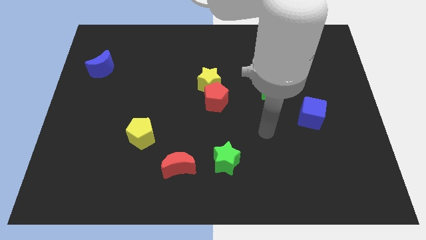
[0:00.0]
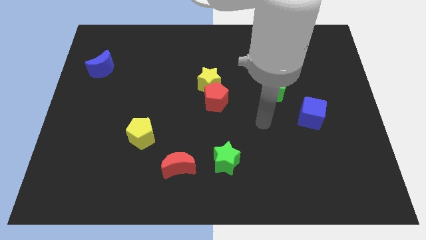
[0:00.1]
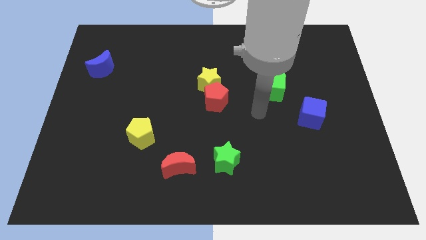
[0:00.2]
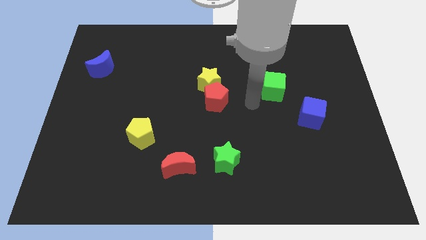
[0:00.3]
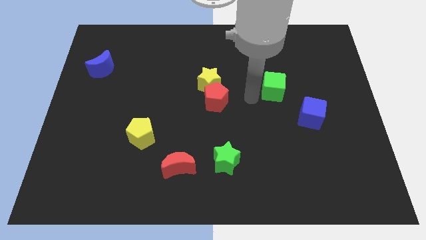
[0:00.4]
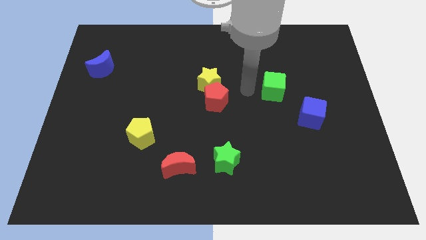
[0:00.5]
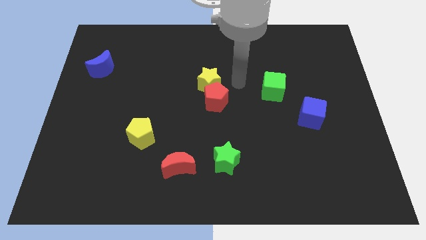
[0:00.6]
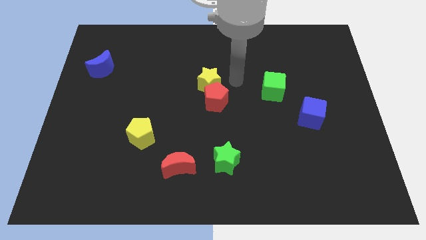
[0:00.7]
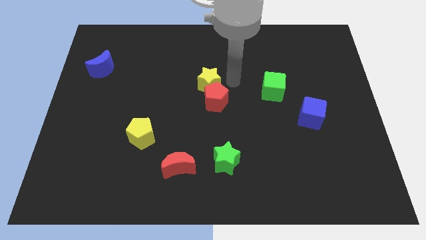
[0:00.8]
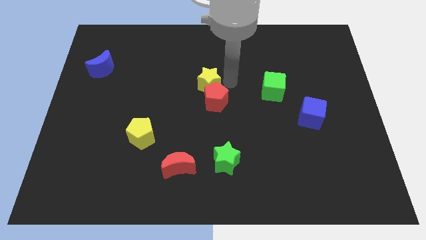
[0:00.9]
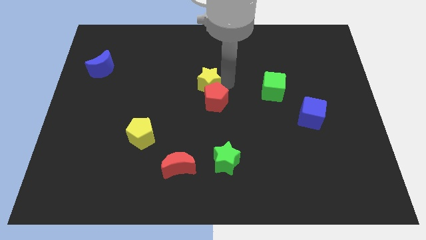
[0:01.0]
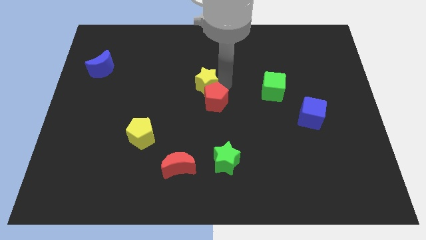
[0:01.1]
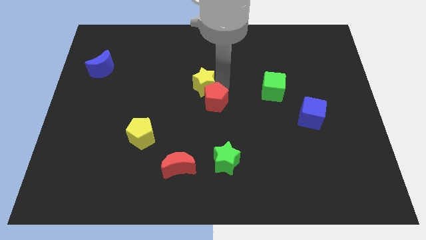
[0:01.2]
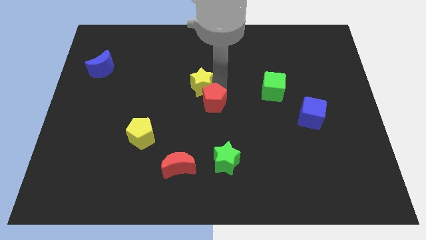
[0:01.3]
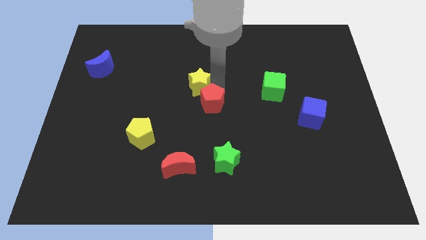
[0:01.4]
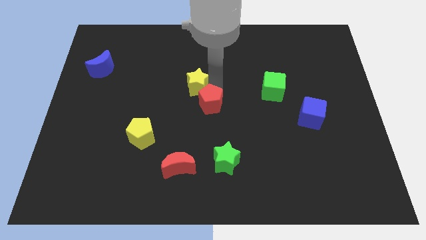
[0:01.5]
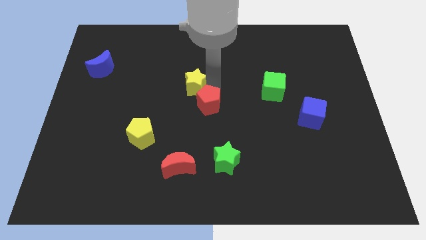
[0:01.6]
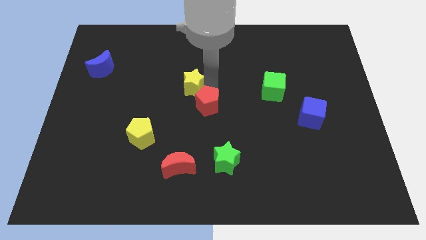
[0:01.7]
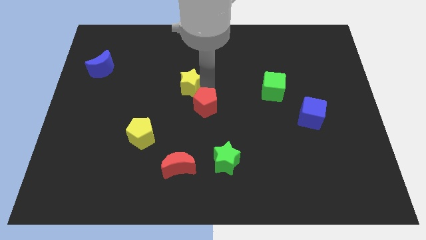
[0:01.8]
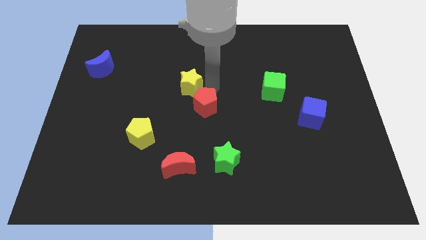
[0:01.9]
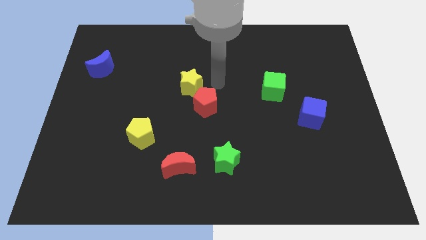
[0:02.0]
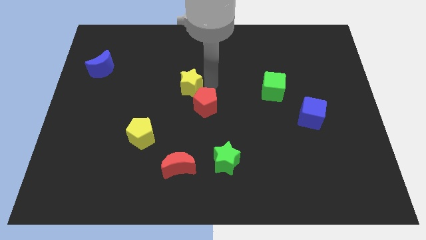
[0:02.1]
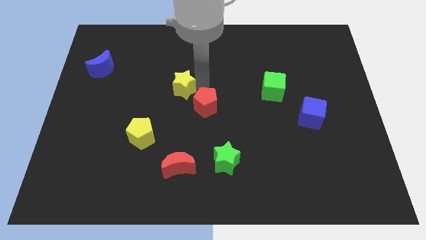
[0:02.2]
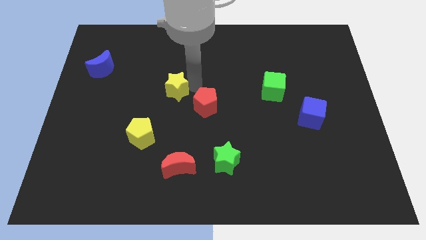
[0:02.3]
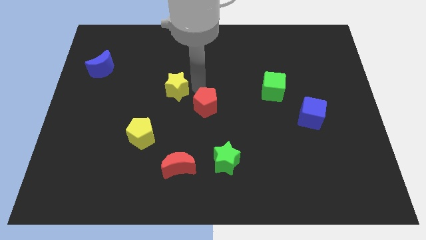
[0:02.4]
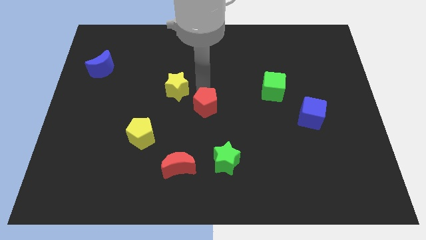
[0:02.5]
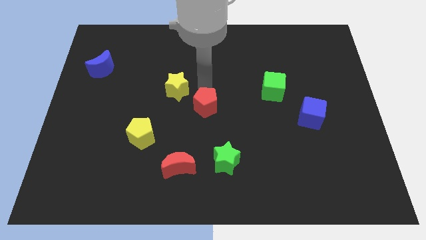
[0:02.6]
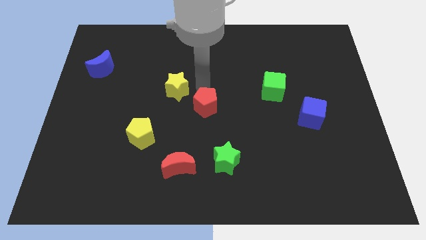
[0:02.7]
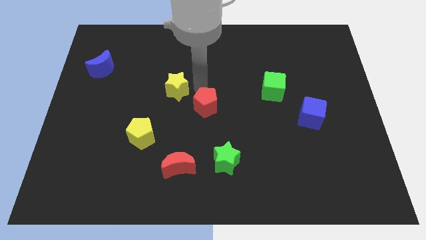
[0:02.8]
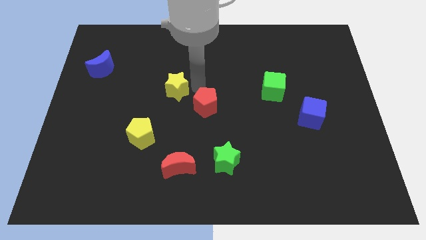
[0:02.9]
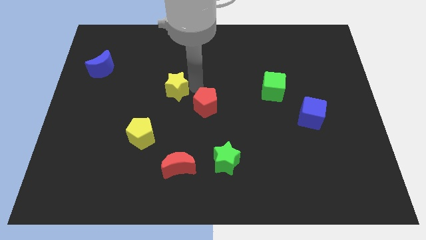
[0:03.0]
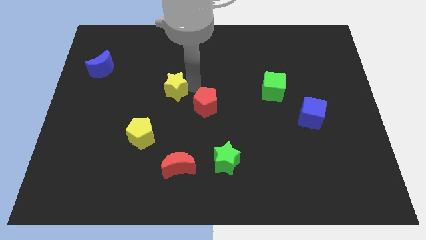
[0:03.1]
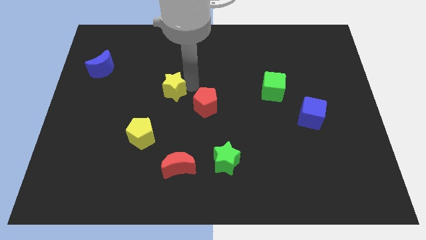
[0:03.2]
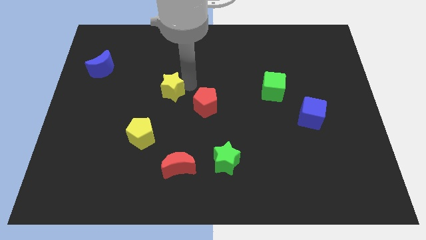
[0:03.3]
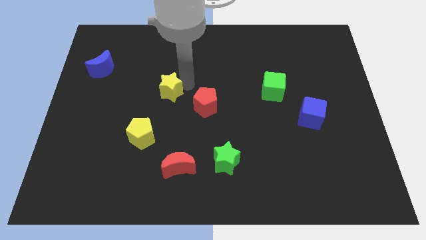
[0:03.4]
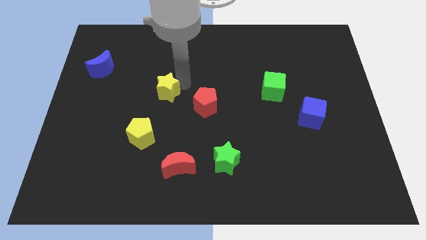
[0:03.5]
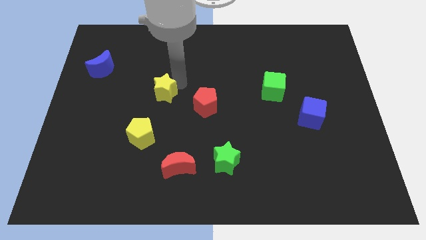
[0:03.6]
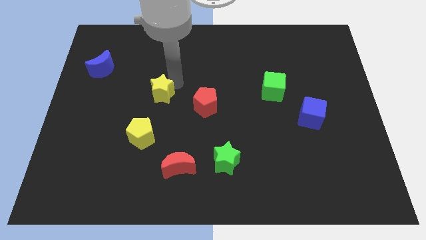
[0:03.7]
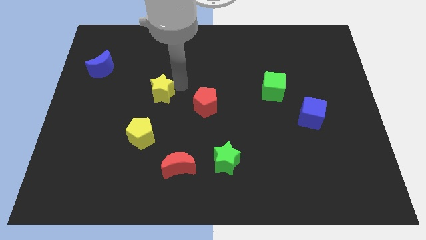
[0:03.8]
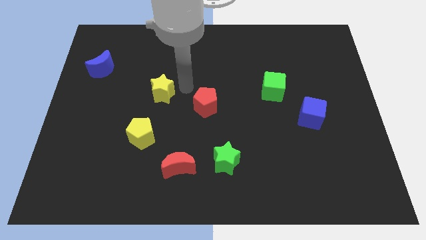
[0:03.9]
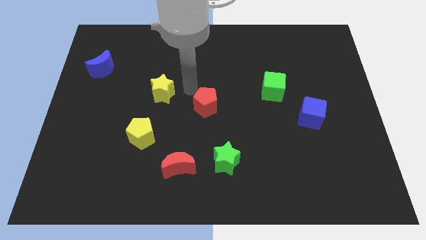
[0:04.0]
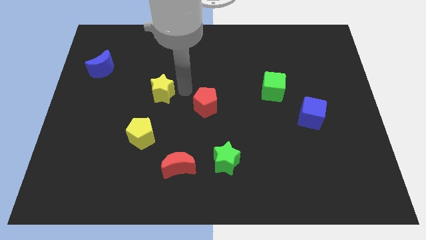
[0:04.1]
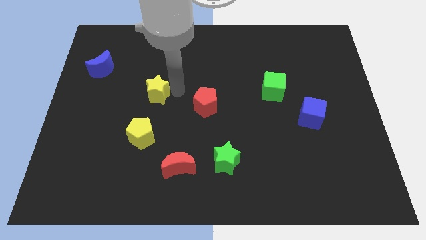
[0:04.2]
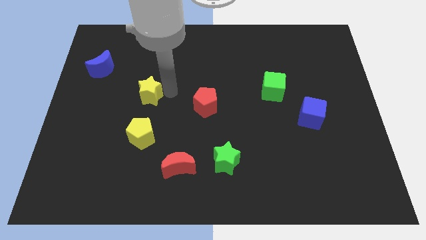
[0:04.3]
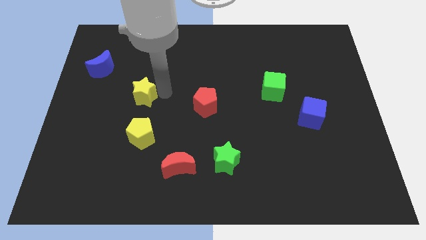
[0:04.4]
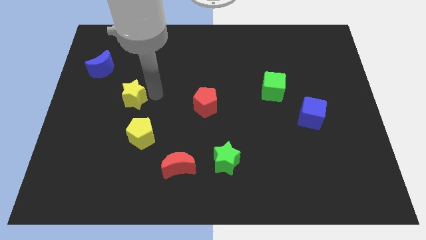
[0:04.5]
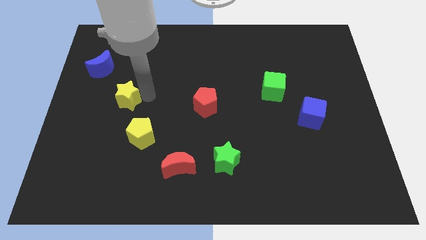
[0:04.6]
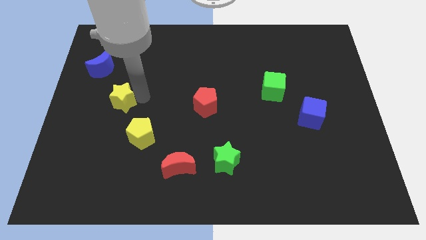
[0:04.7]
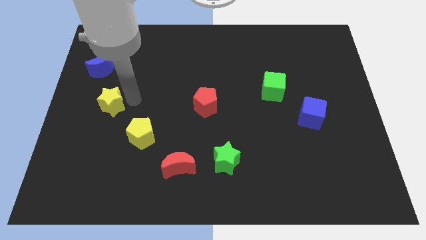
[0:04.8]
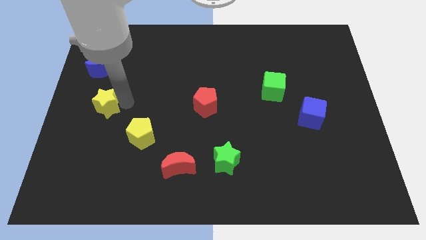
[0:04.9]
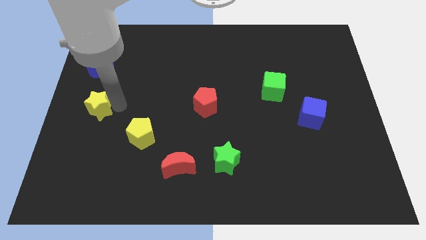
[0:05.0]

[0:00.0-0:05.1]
slide the yellow star to the center left

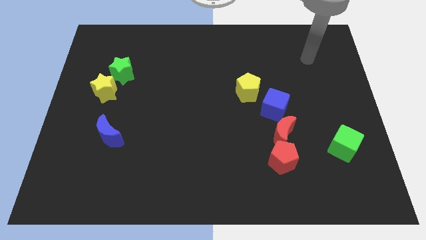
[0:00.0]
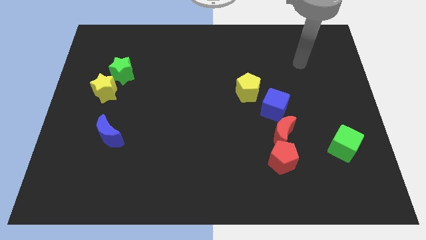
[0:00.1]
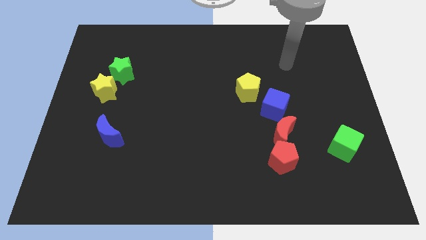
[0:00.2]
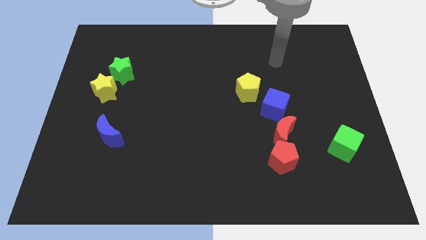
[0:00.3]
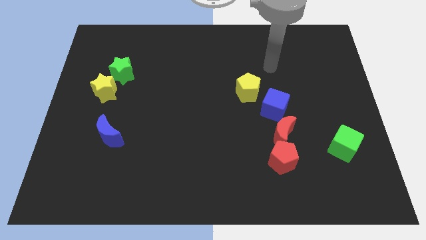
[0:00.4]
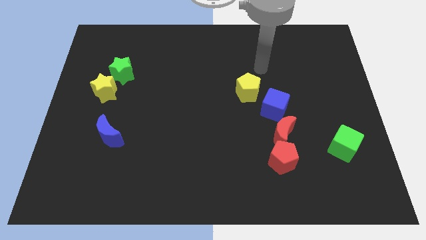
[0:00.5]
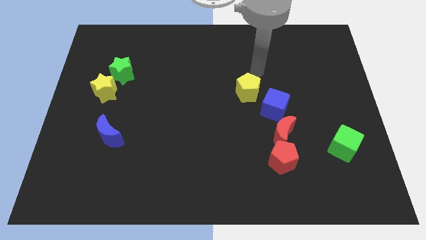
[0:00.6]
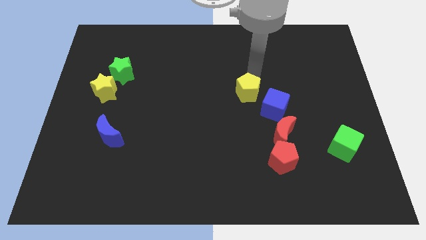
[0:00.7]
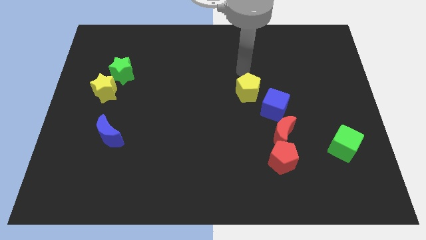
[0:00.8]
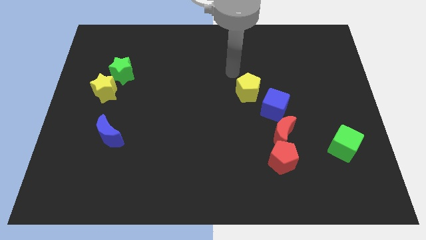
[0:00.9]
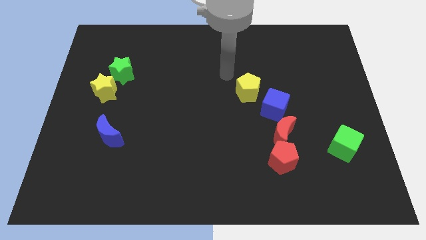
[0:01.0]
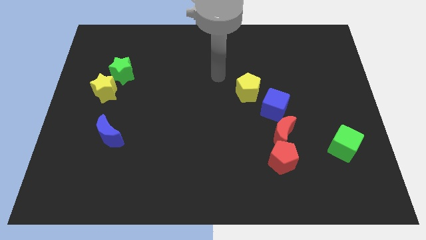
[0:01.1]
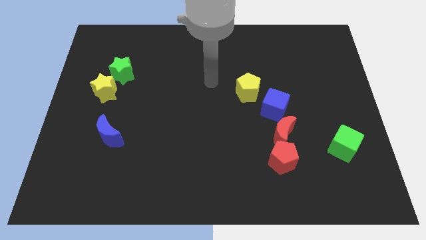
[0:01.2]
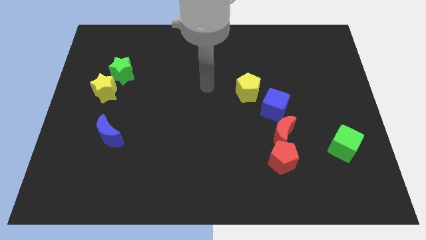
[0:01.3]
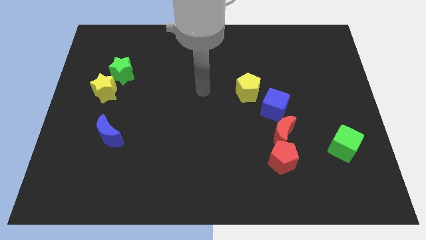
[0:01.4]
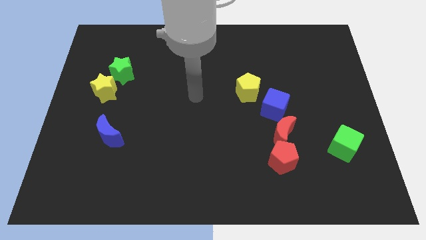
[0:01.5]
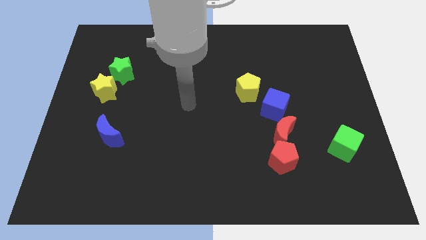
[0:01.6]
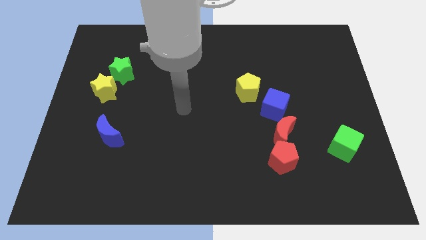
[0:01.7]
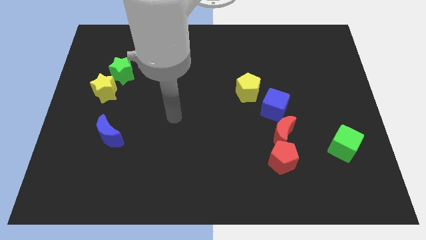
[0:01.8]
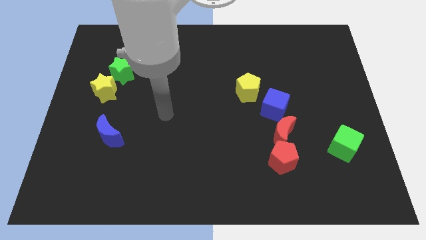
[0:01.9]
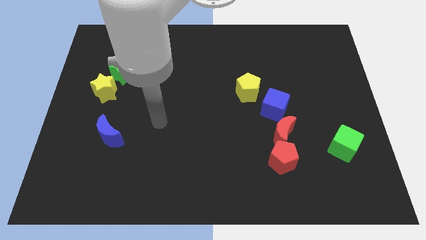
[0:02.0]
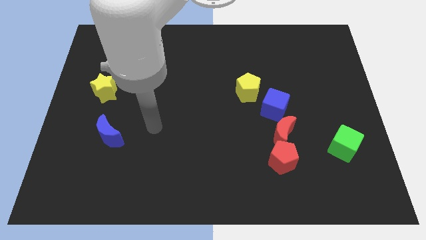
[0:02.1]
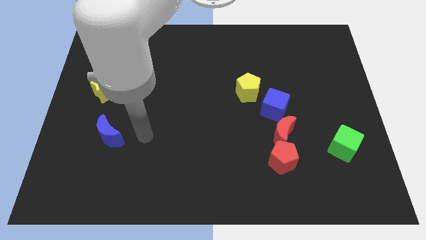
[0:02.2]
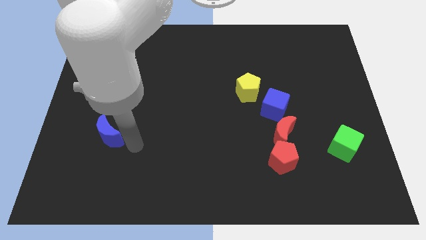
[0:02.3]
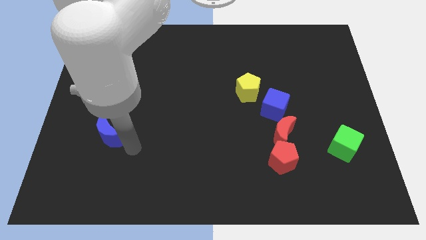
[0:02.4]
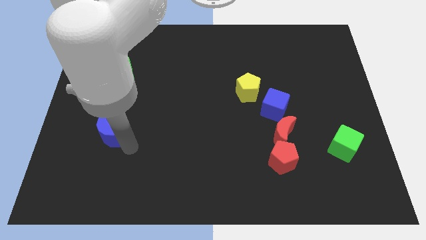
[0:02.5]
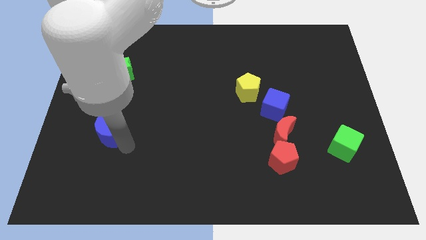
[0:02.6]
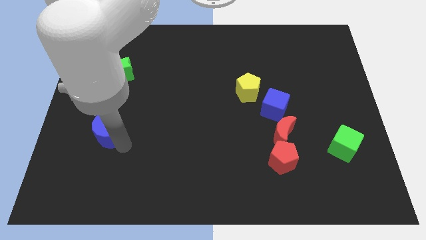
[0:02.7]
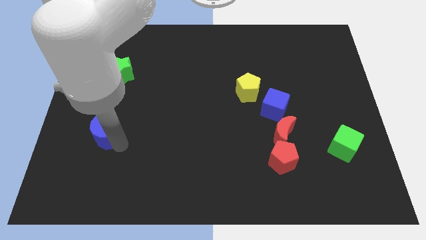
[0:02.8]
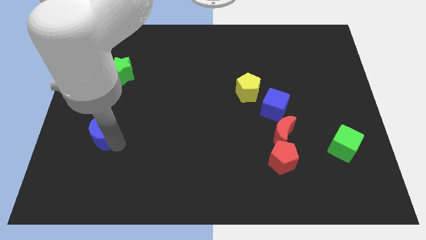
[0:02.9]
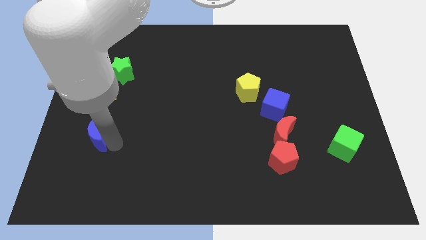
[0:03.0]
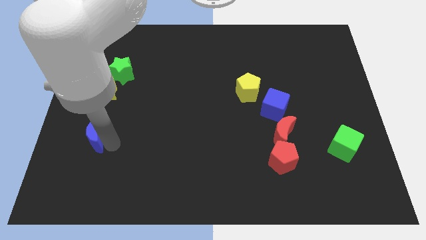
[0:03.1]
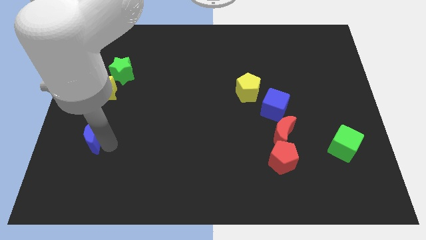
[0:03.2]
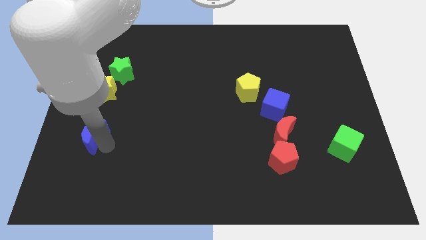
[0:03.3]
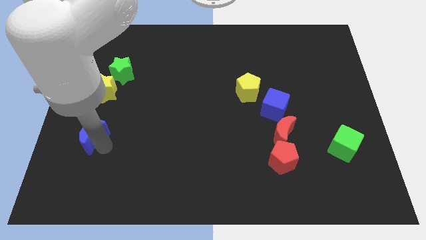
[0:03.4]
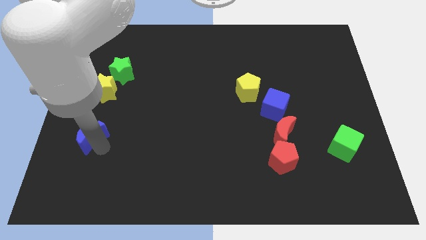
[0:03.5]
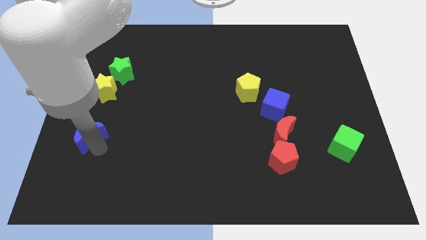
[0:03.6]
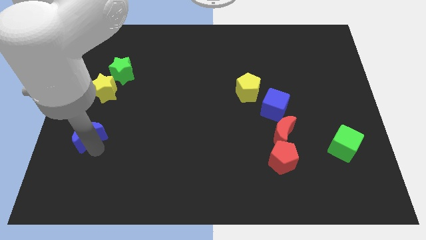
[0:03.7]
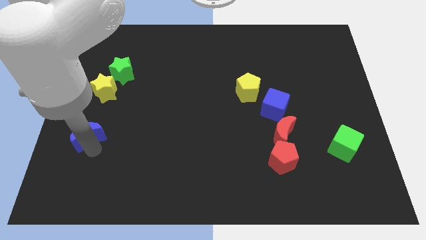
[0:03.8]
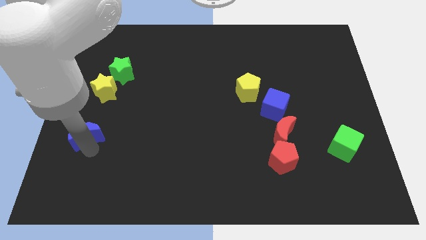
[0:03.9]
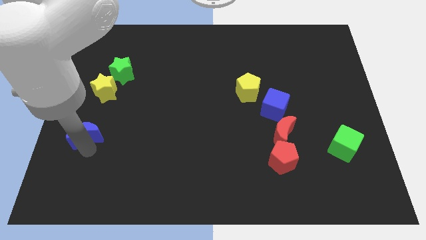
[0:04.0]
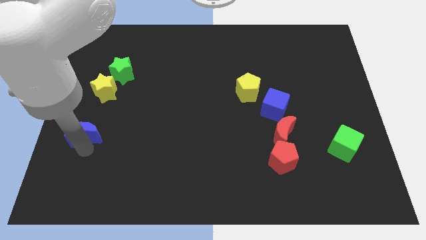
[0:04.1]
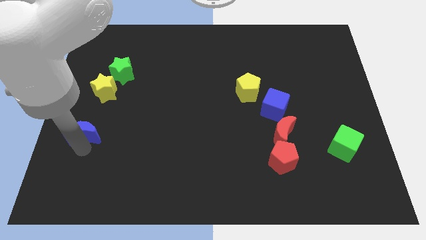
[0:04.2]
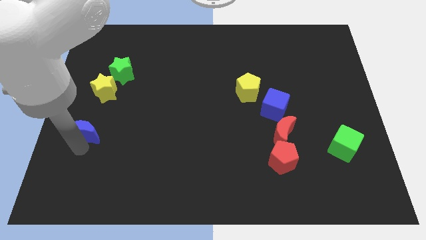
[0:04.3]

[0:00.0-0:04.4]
put the blue moon to the center left
